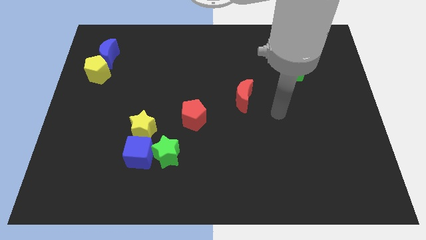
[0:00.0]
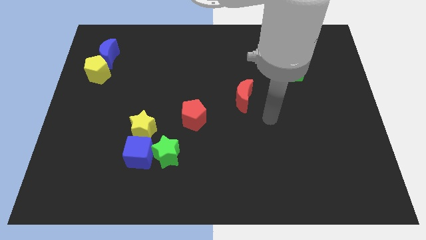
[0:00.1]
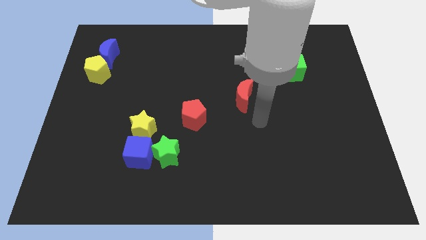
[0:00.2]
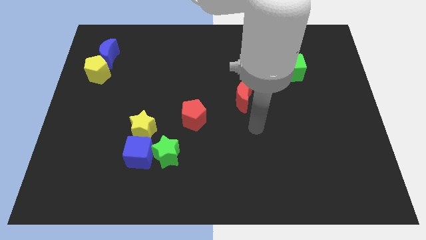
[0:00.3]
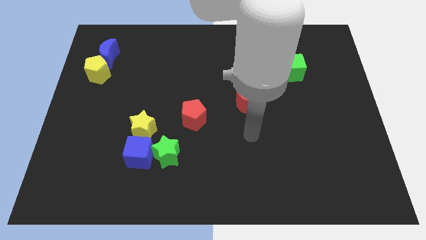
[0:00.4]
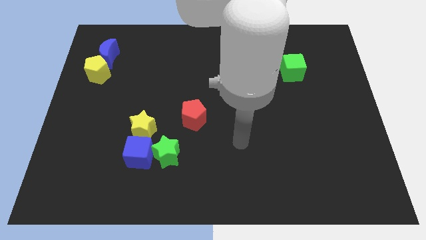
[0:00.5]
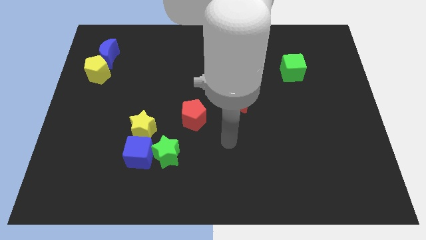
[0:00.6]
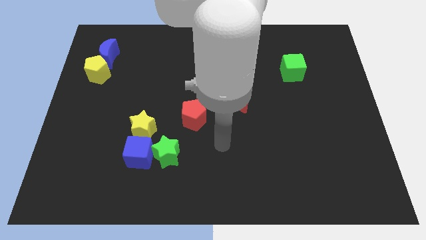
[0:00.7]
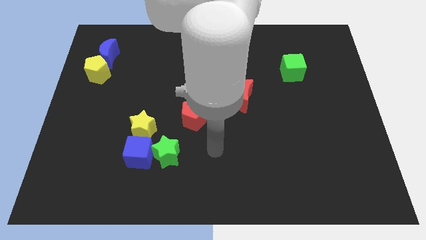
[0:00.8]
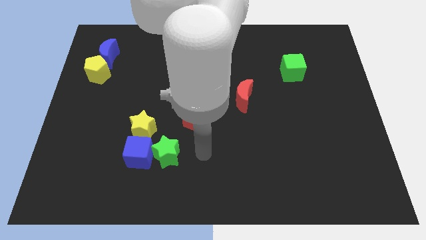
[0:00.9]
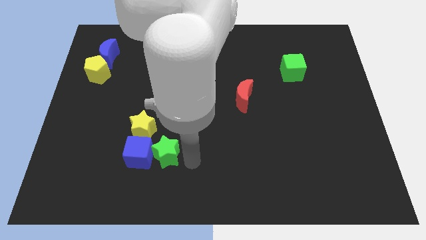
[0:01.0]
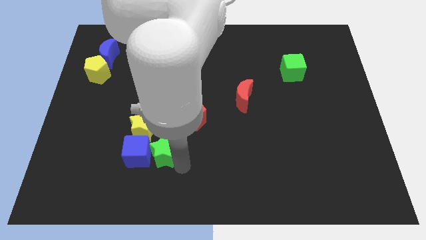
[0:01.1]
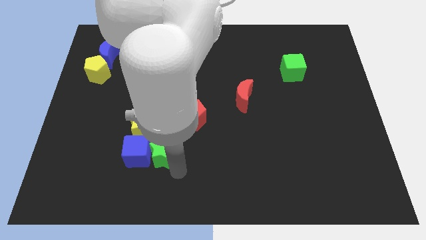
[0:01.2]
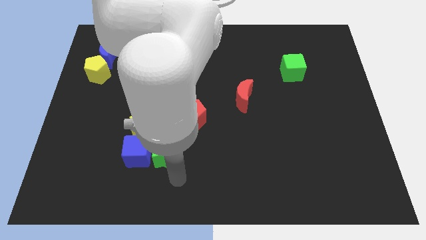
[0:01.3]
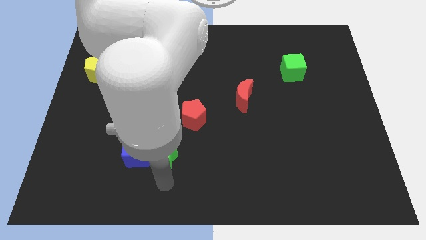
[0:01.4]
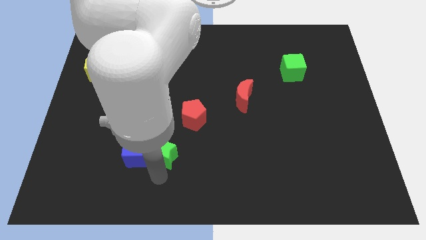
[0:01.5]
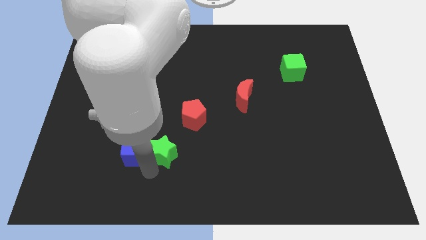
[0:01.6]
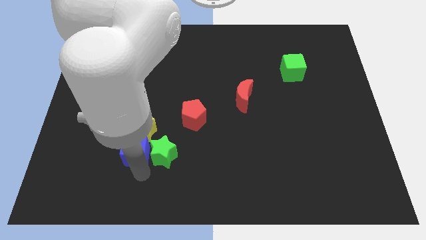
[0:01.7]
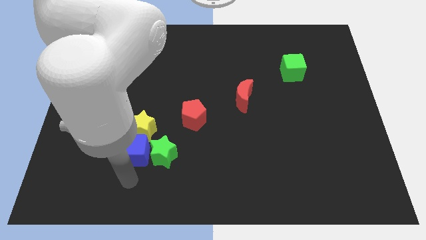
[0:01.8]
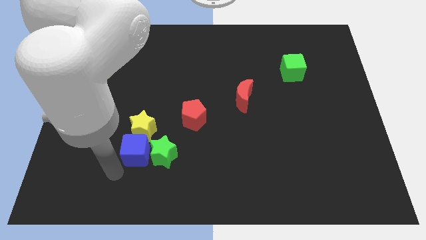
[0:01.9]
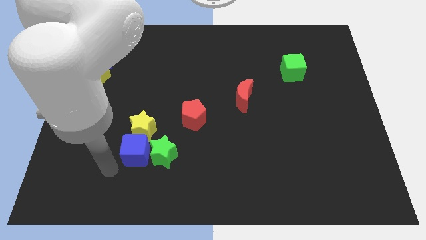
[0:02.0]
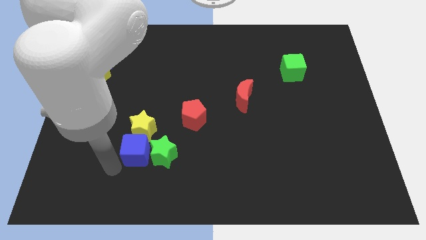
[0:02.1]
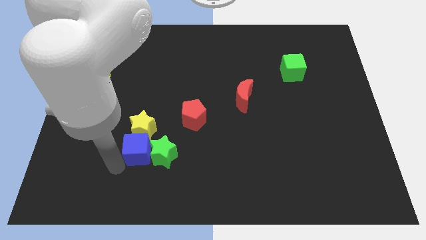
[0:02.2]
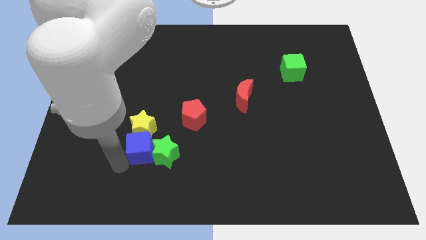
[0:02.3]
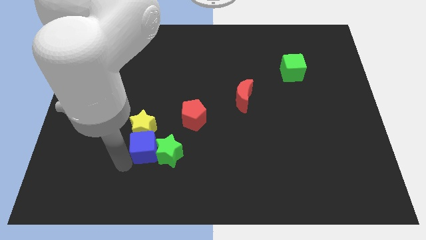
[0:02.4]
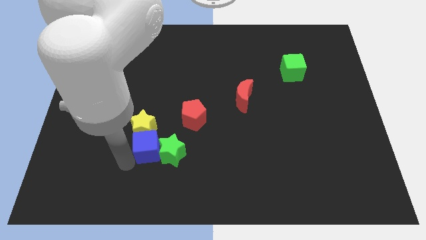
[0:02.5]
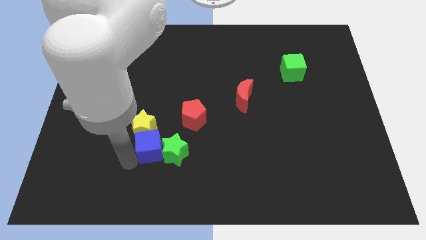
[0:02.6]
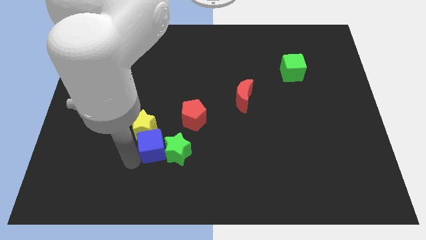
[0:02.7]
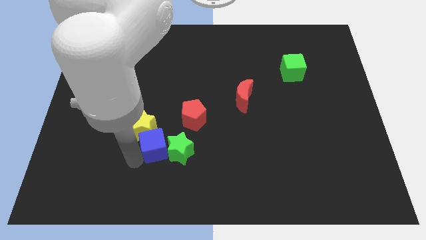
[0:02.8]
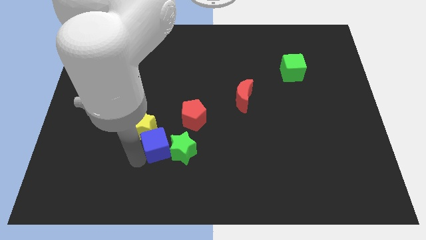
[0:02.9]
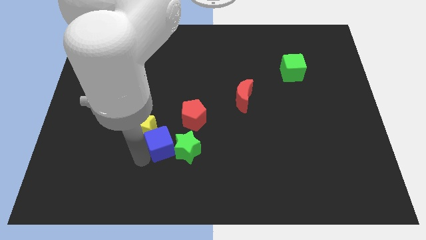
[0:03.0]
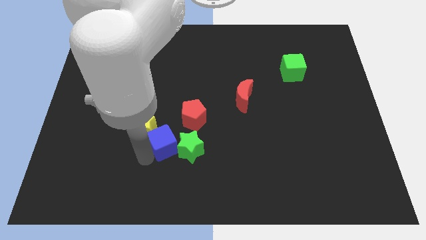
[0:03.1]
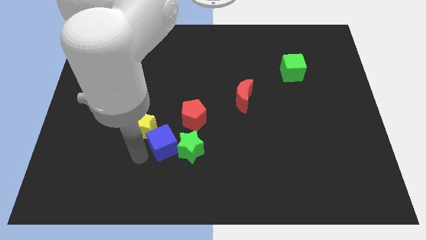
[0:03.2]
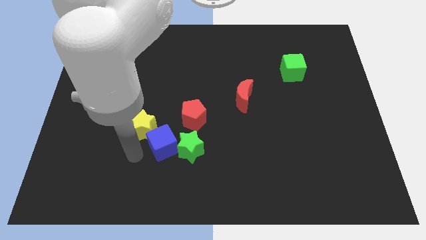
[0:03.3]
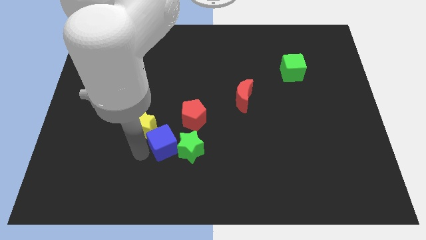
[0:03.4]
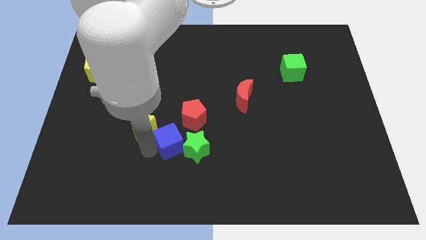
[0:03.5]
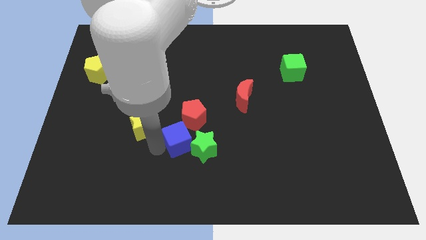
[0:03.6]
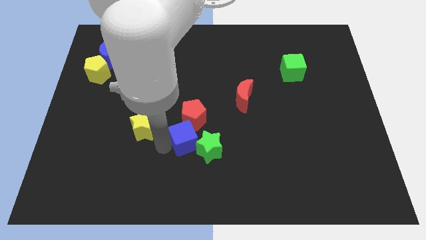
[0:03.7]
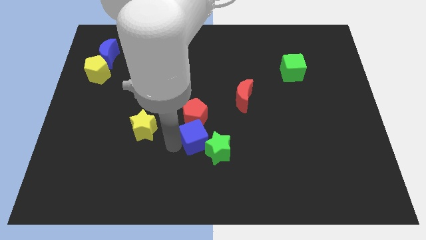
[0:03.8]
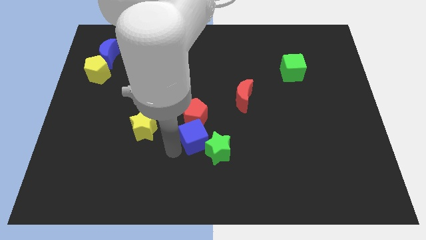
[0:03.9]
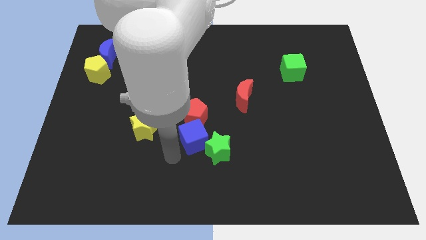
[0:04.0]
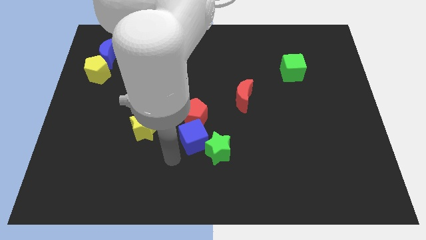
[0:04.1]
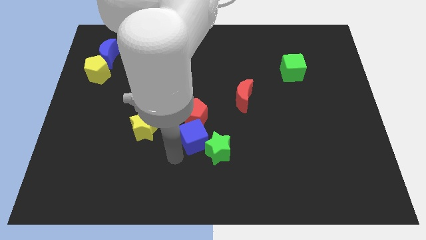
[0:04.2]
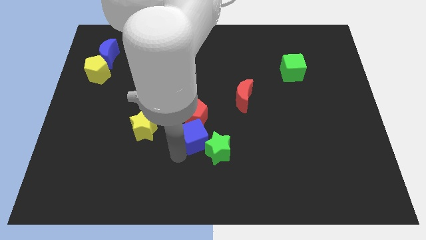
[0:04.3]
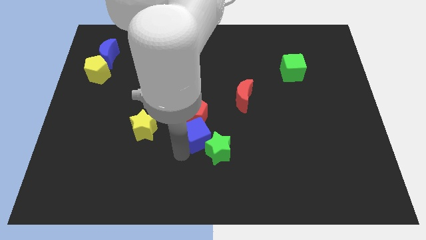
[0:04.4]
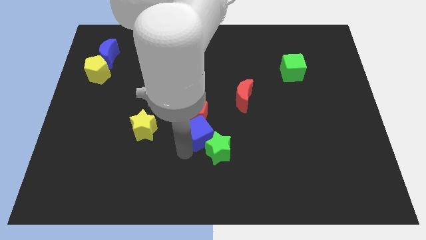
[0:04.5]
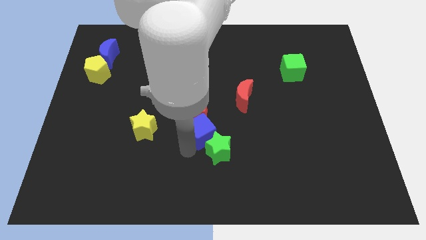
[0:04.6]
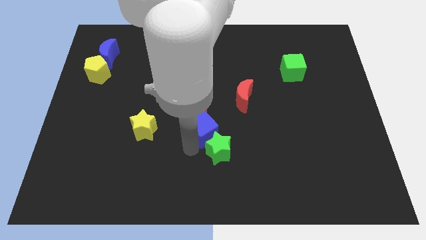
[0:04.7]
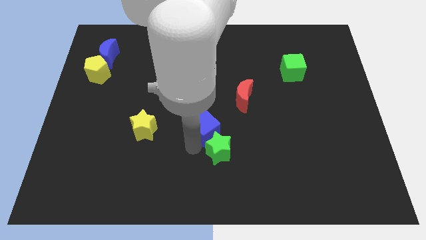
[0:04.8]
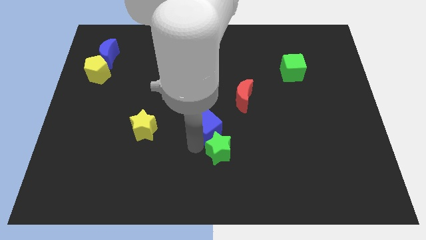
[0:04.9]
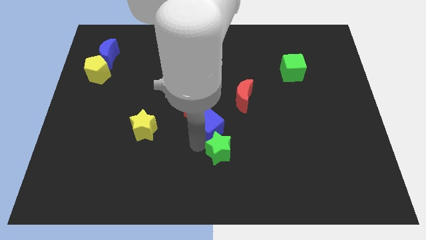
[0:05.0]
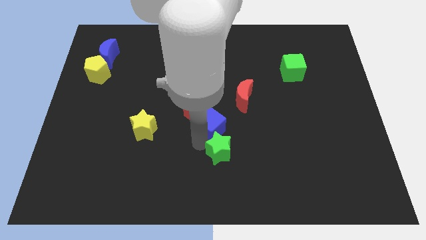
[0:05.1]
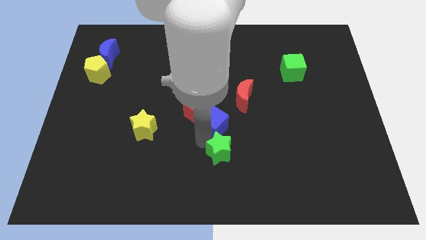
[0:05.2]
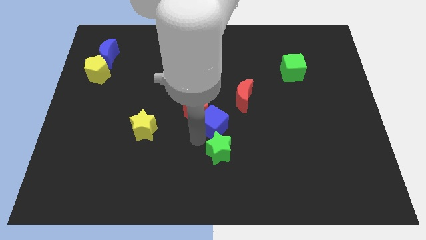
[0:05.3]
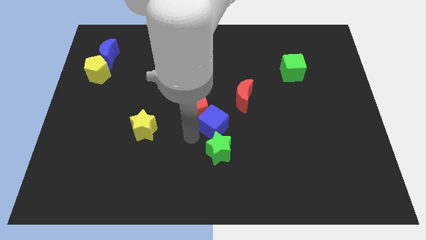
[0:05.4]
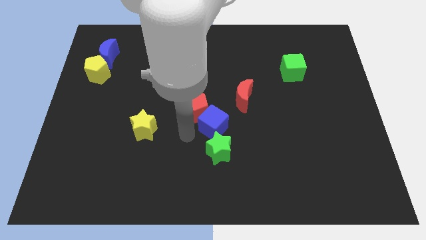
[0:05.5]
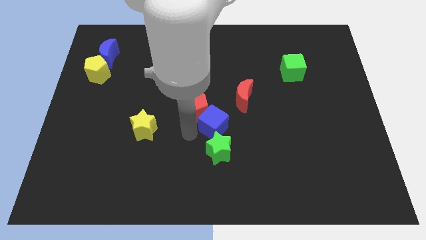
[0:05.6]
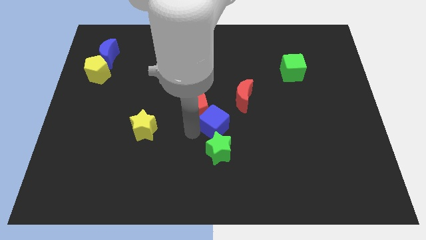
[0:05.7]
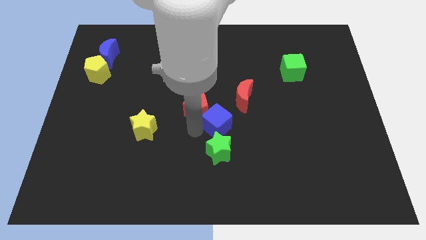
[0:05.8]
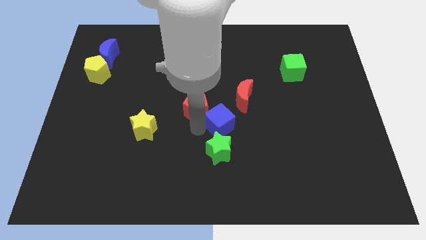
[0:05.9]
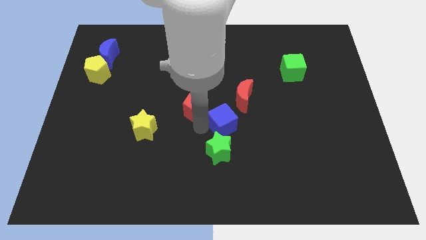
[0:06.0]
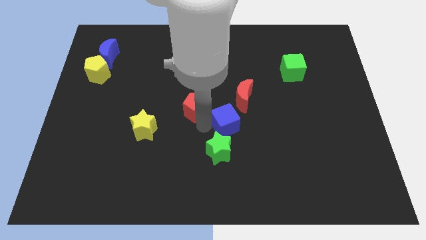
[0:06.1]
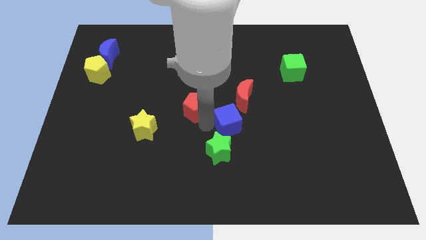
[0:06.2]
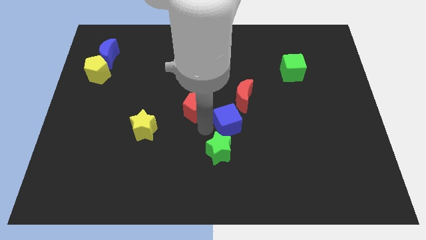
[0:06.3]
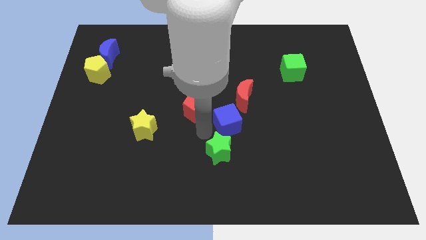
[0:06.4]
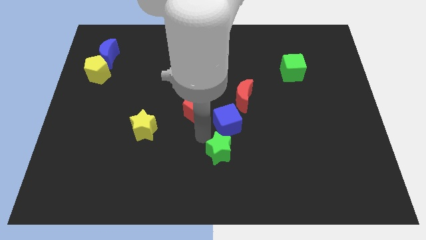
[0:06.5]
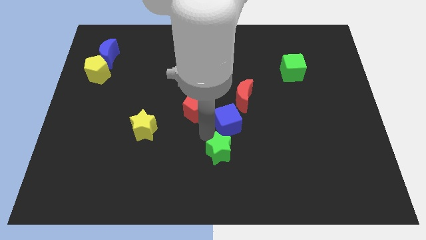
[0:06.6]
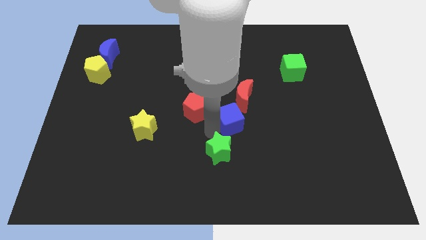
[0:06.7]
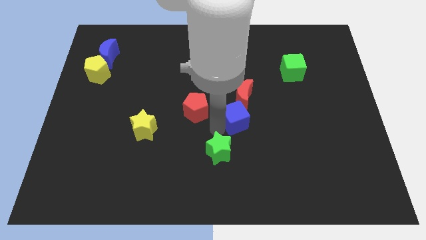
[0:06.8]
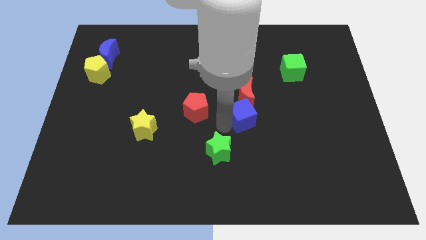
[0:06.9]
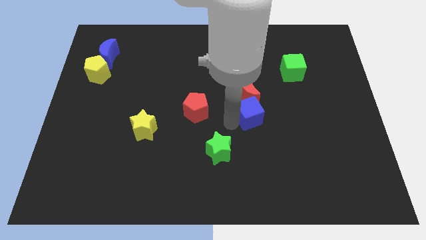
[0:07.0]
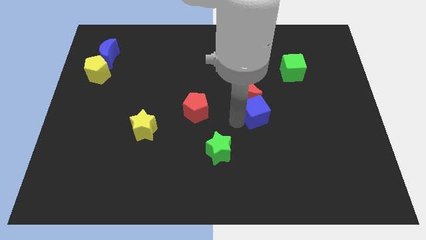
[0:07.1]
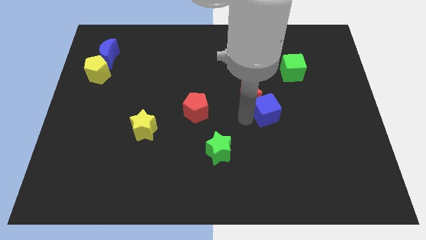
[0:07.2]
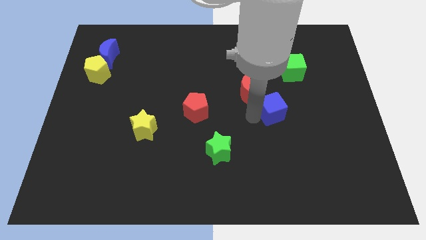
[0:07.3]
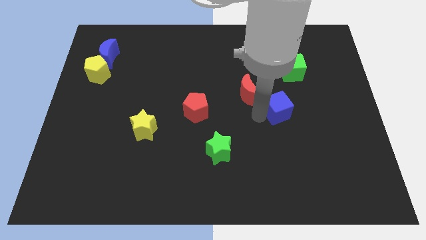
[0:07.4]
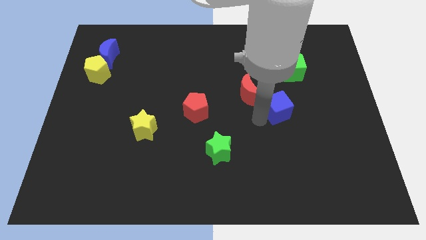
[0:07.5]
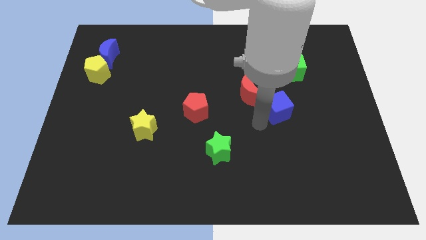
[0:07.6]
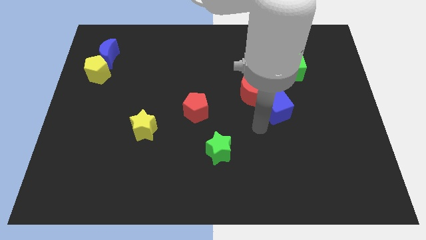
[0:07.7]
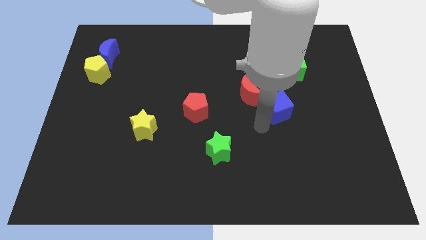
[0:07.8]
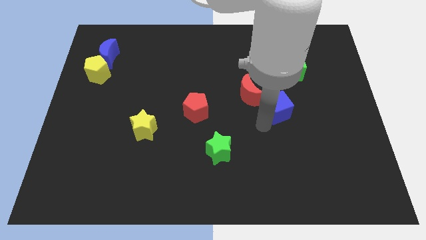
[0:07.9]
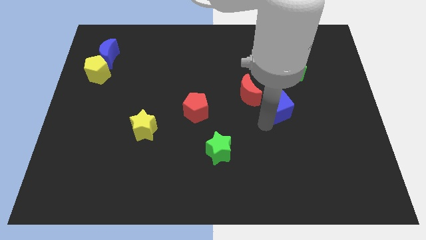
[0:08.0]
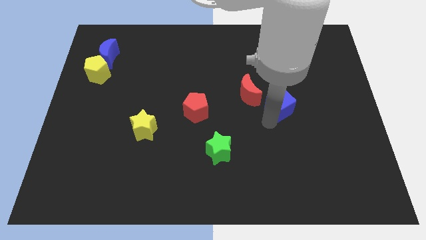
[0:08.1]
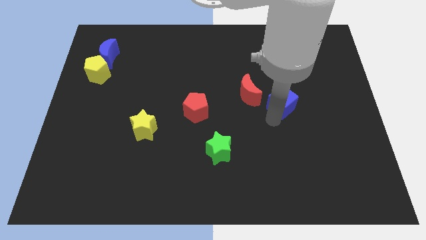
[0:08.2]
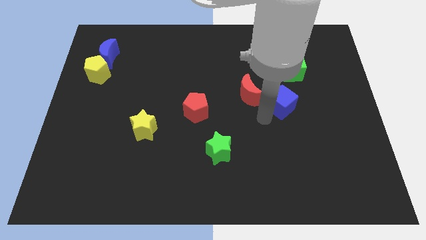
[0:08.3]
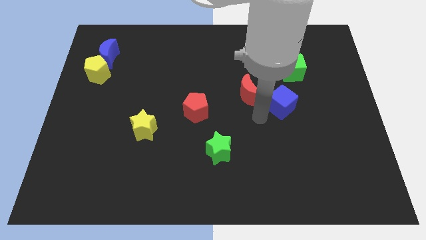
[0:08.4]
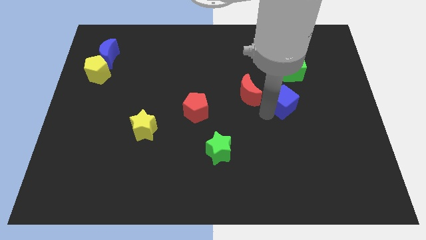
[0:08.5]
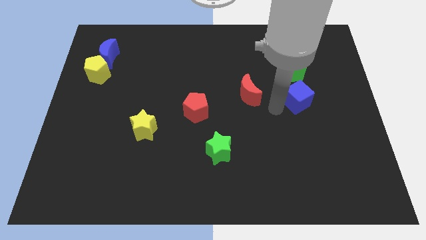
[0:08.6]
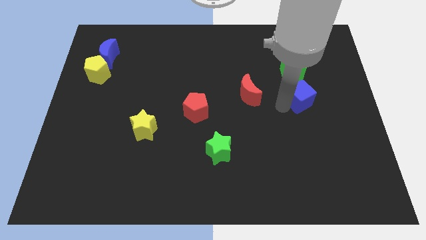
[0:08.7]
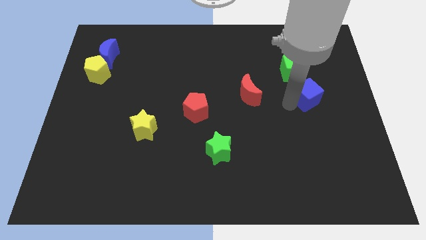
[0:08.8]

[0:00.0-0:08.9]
put the blue cube to the bottom right side of the green cube
